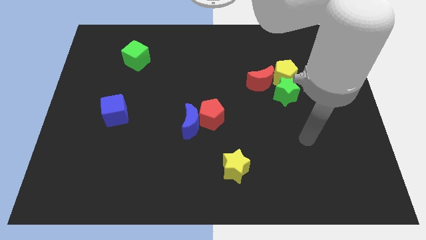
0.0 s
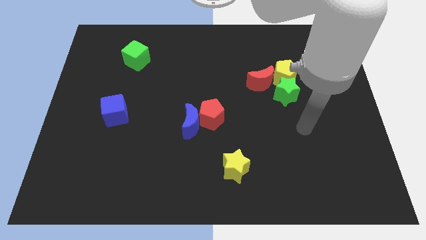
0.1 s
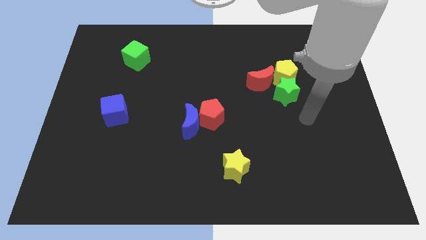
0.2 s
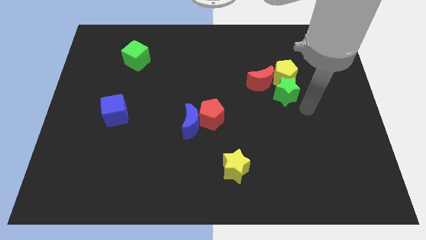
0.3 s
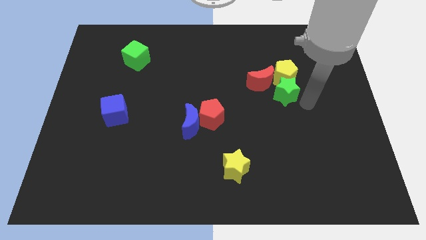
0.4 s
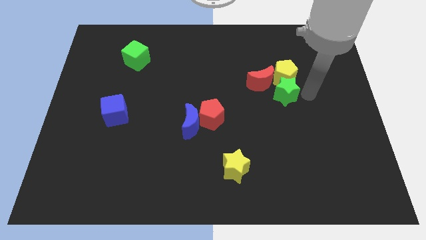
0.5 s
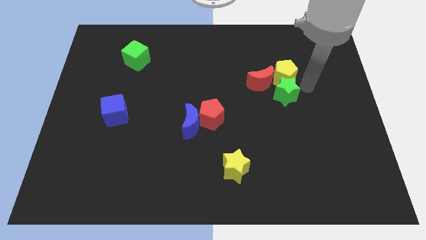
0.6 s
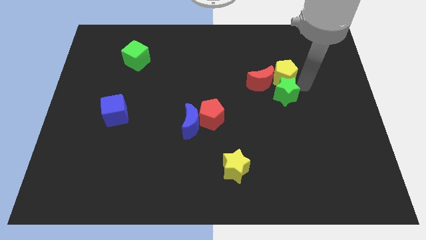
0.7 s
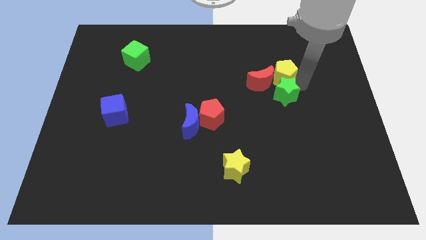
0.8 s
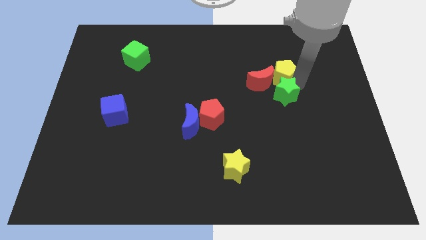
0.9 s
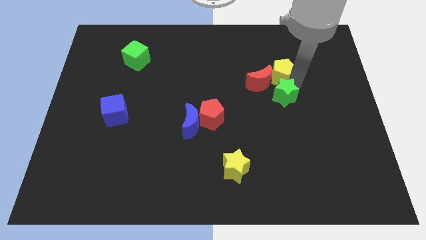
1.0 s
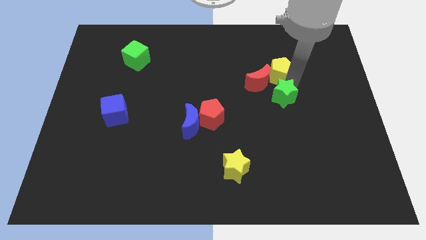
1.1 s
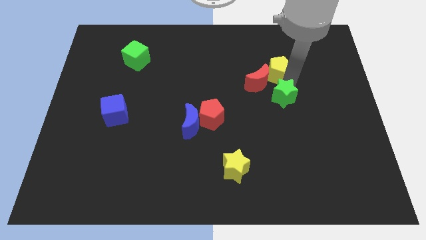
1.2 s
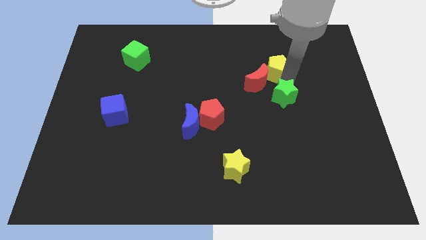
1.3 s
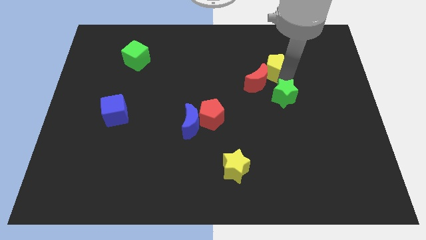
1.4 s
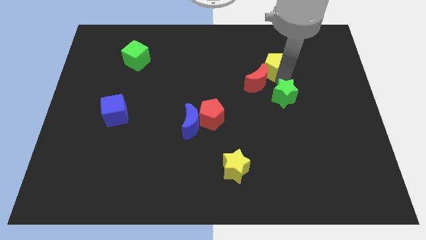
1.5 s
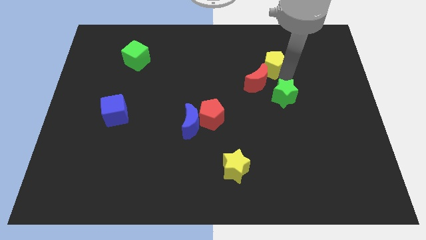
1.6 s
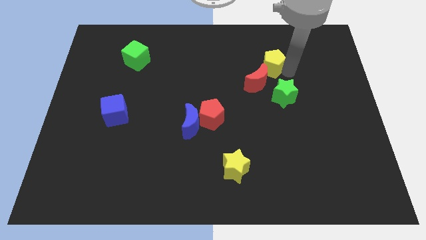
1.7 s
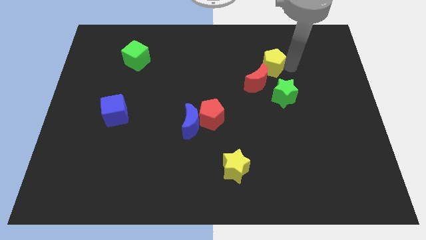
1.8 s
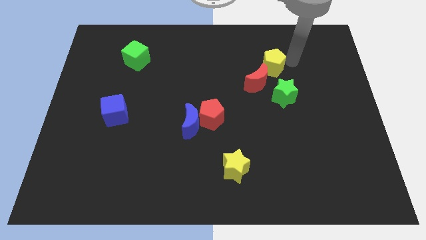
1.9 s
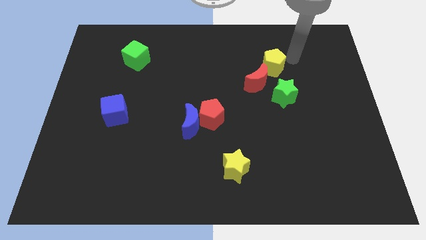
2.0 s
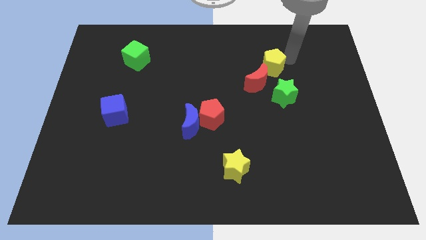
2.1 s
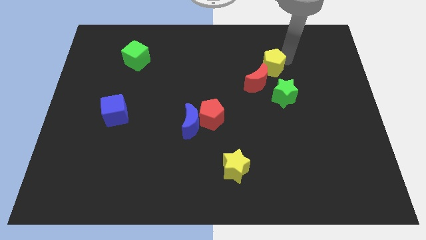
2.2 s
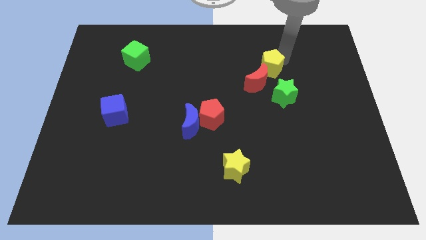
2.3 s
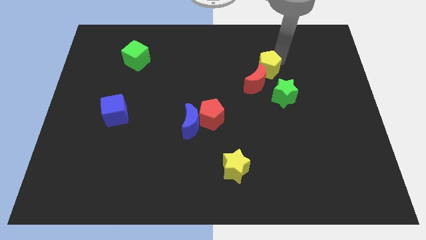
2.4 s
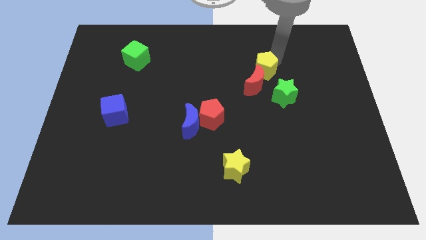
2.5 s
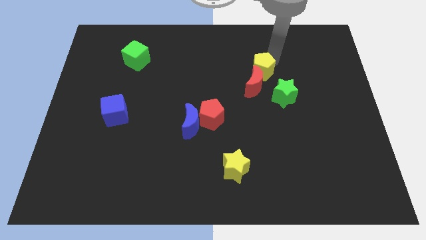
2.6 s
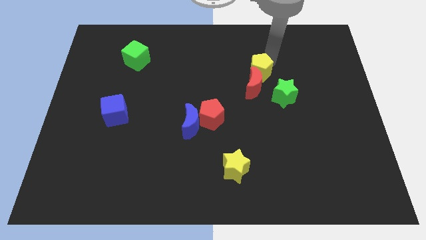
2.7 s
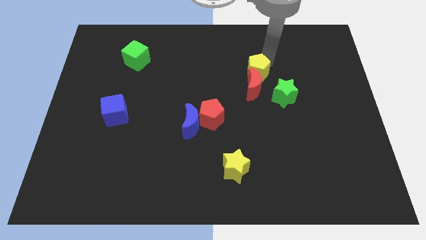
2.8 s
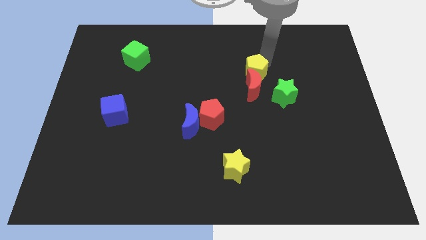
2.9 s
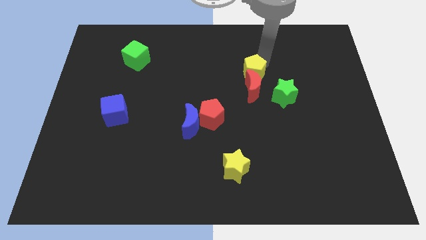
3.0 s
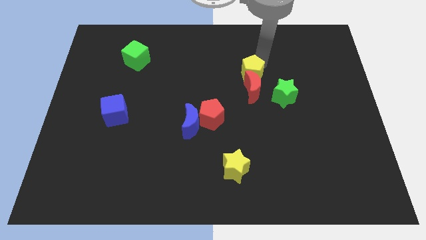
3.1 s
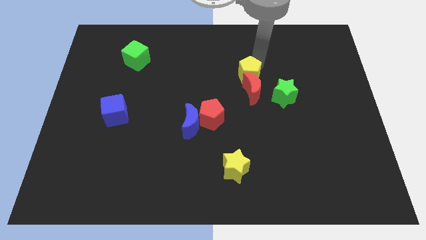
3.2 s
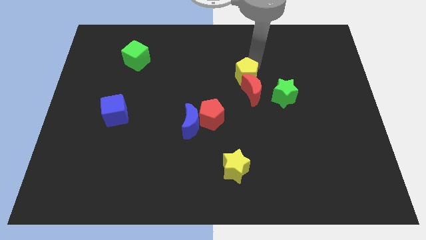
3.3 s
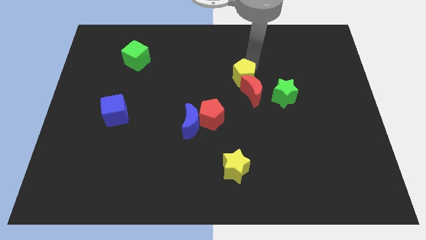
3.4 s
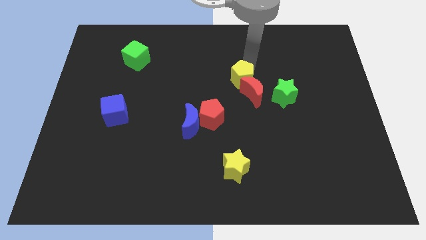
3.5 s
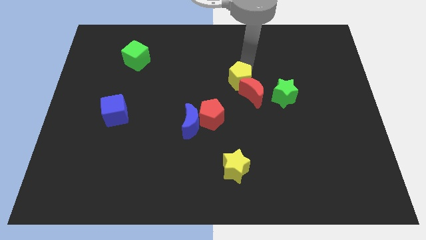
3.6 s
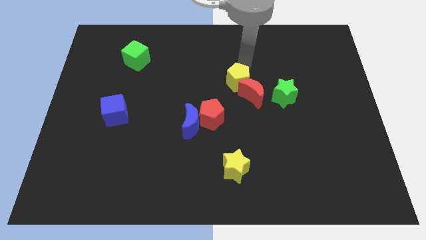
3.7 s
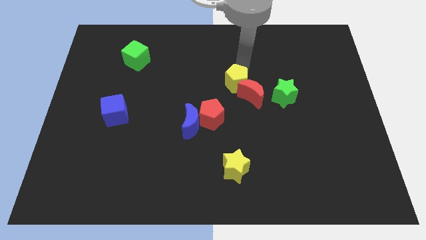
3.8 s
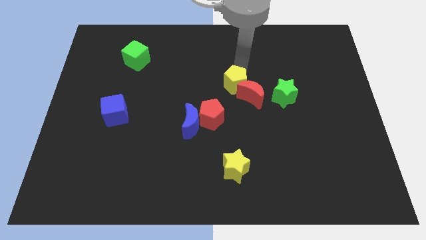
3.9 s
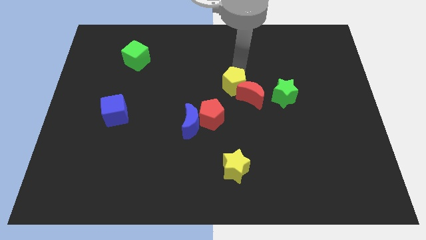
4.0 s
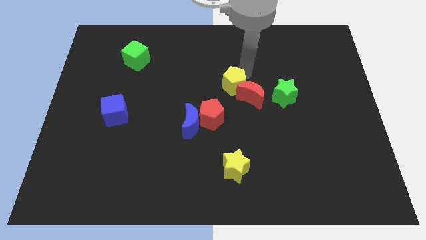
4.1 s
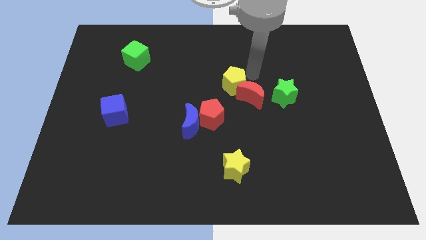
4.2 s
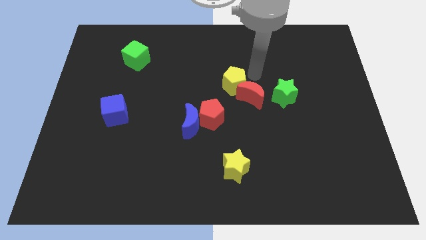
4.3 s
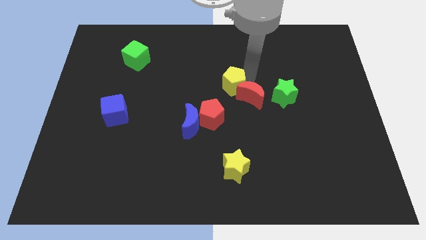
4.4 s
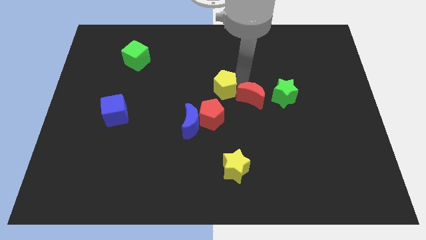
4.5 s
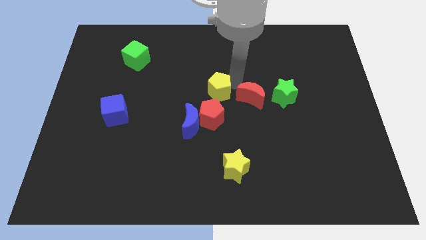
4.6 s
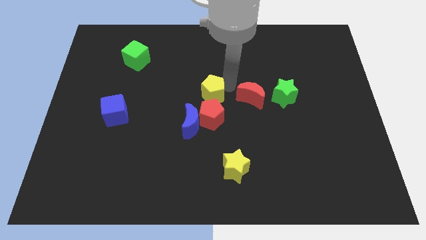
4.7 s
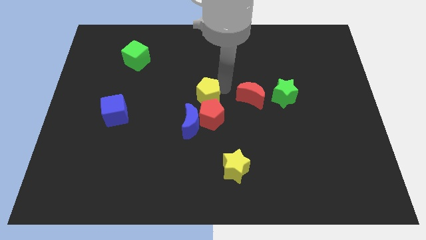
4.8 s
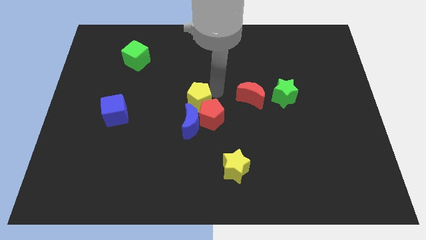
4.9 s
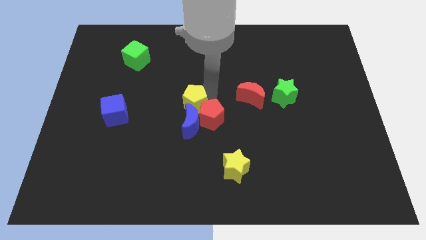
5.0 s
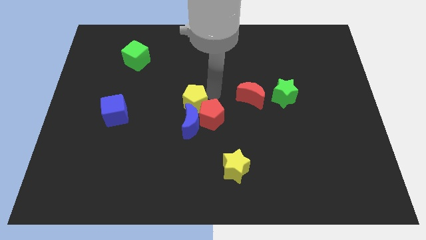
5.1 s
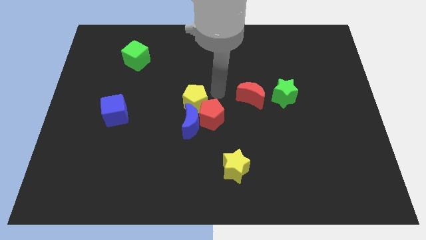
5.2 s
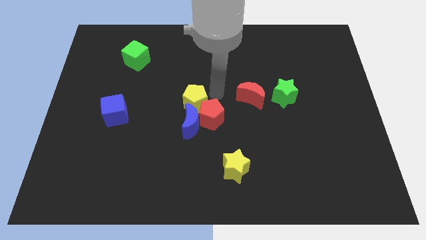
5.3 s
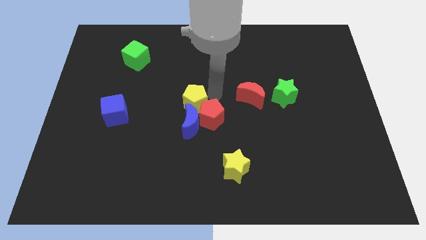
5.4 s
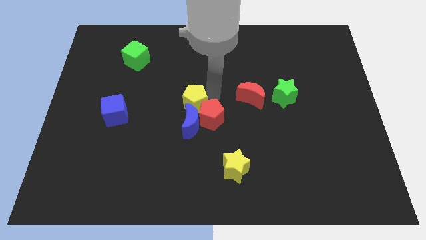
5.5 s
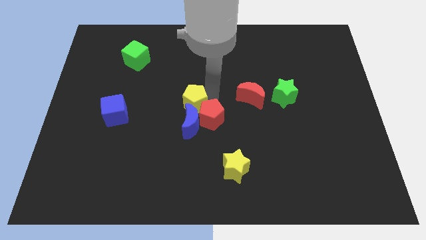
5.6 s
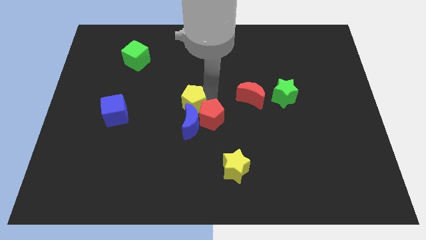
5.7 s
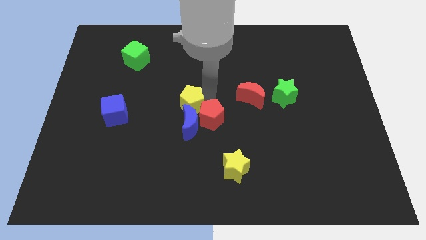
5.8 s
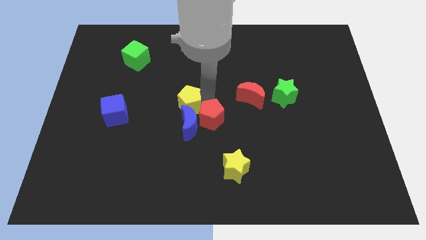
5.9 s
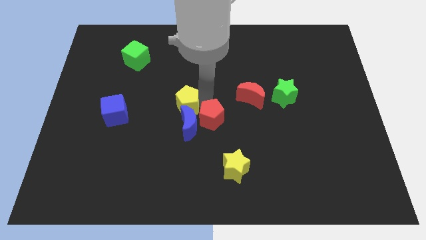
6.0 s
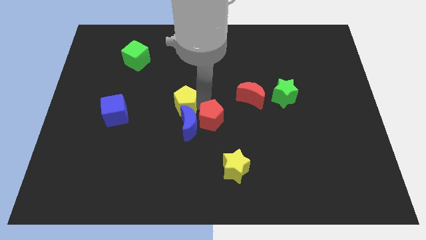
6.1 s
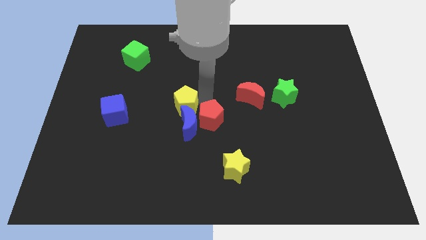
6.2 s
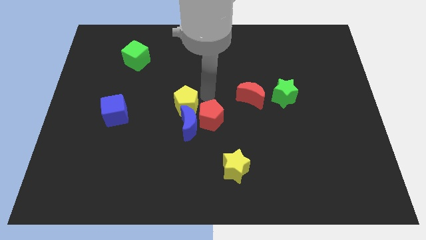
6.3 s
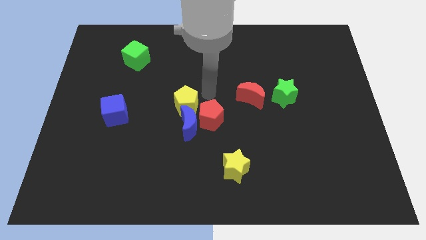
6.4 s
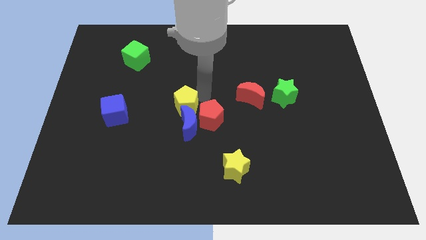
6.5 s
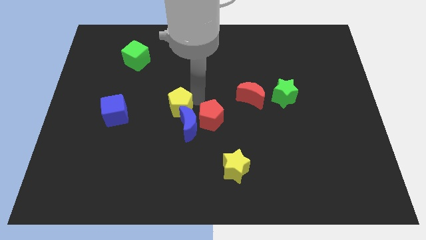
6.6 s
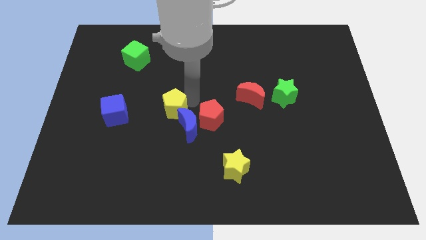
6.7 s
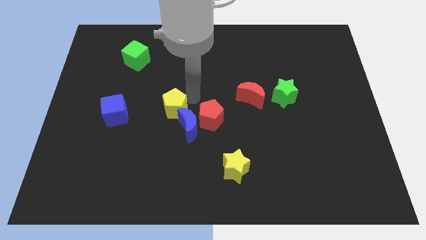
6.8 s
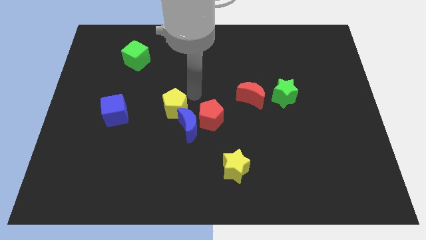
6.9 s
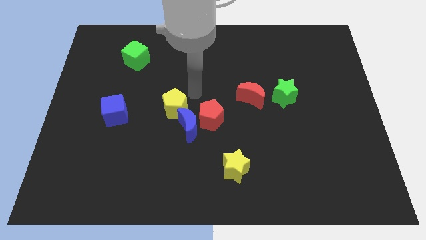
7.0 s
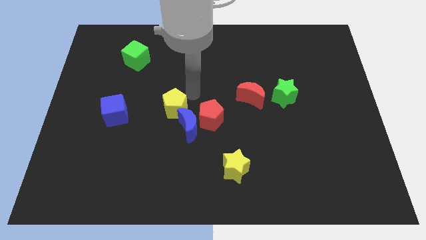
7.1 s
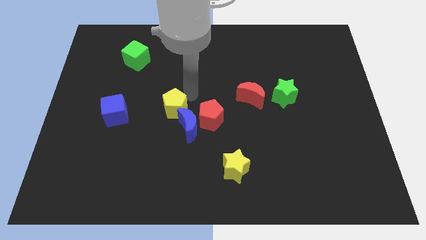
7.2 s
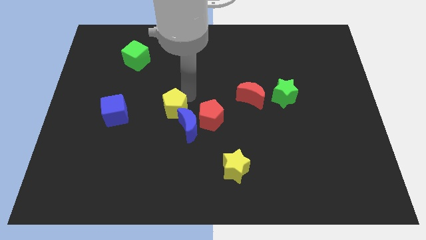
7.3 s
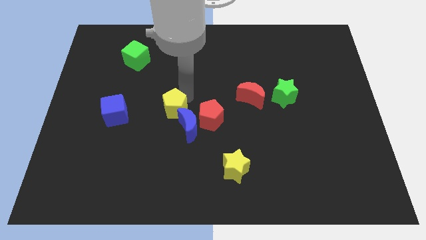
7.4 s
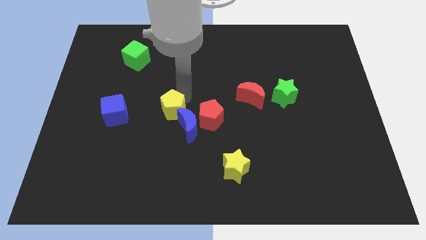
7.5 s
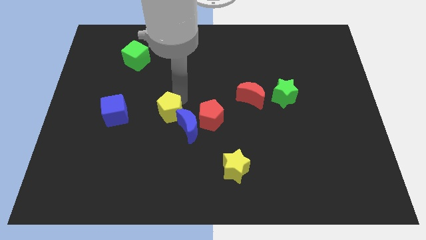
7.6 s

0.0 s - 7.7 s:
slide the yellow pentagon to the left side of the blue moon
